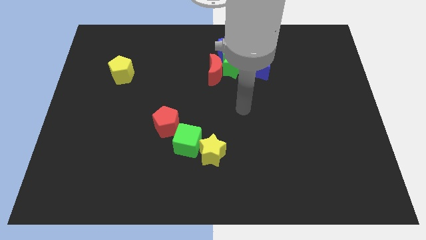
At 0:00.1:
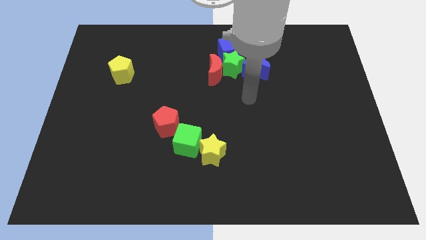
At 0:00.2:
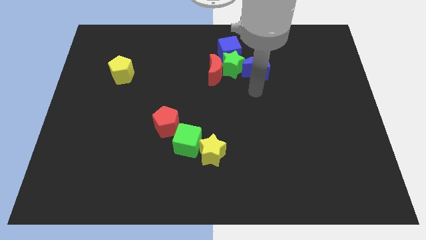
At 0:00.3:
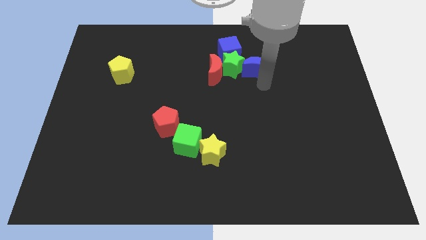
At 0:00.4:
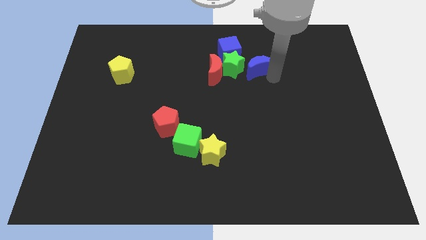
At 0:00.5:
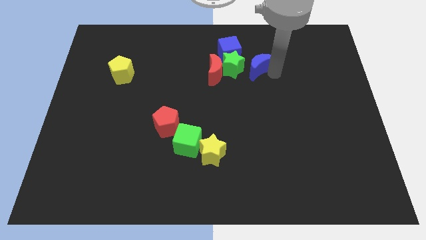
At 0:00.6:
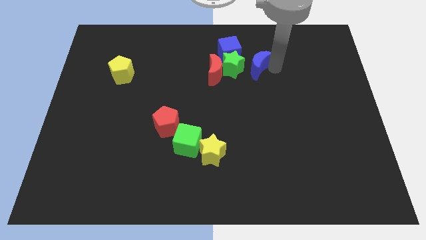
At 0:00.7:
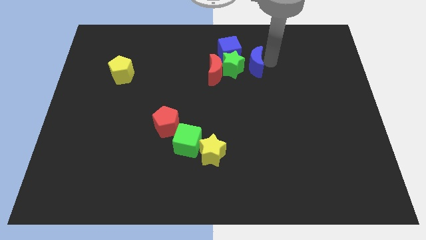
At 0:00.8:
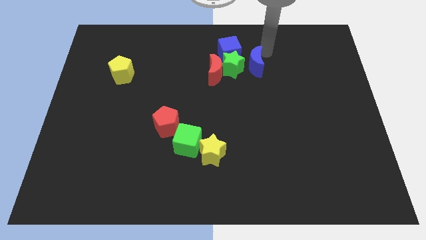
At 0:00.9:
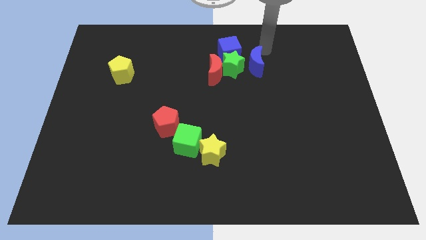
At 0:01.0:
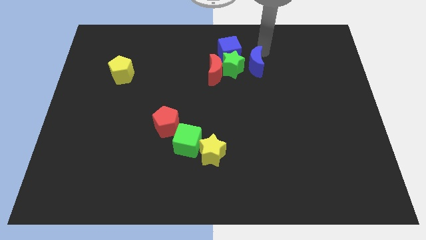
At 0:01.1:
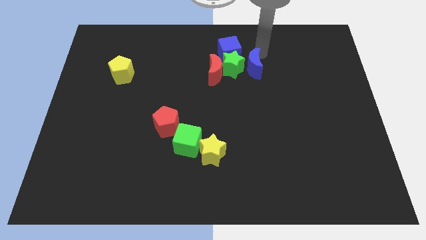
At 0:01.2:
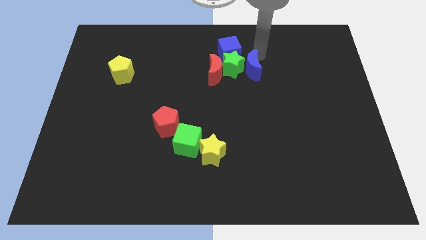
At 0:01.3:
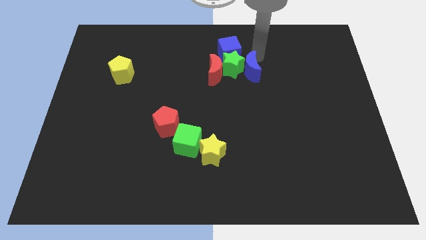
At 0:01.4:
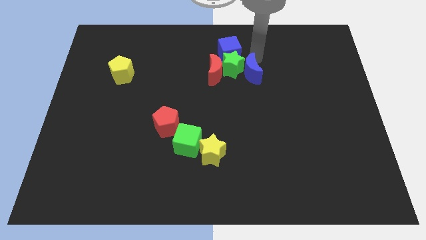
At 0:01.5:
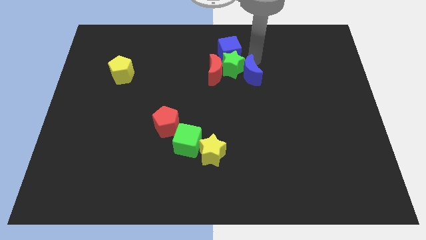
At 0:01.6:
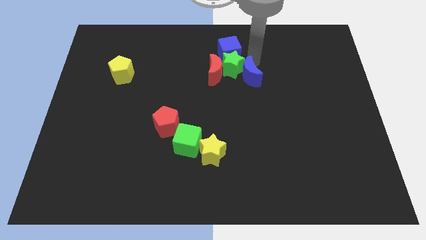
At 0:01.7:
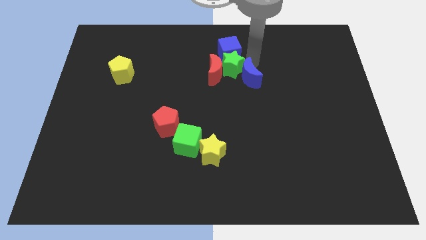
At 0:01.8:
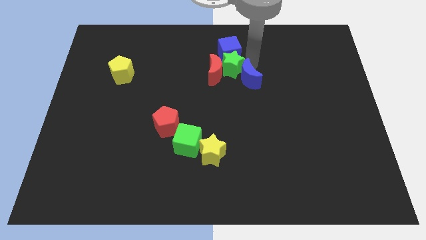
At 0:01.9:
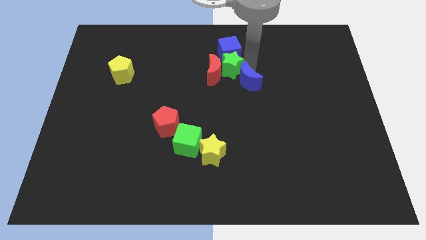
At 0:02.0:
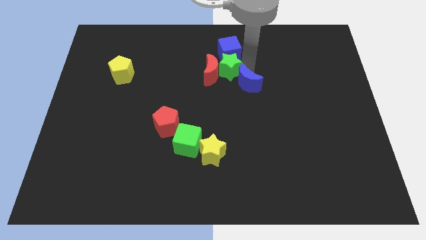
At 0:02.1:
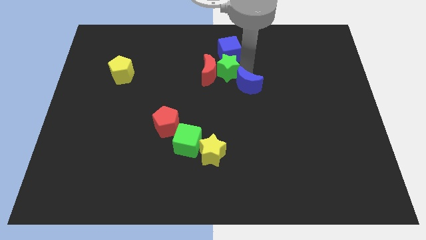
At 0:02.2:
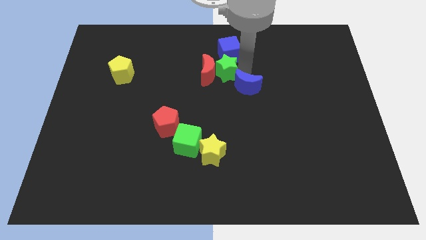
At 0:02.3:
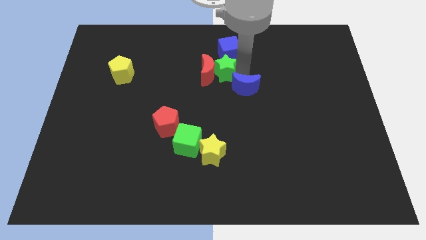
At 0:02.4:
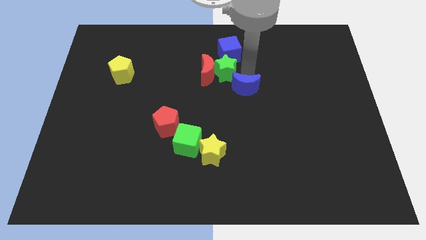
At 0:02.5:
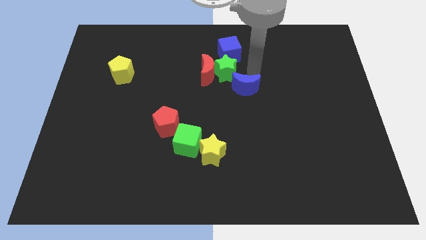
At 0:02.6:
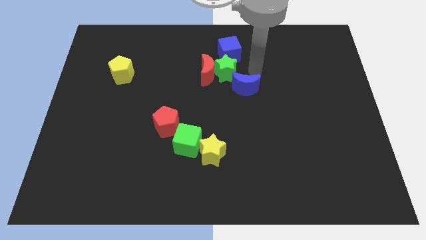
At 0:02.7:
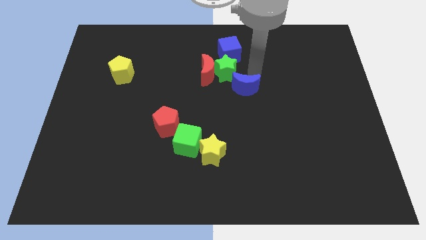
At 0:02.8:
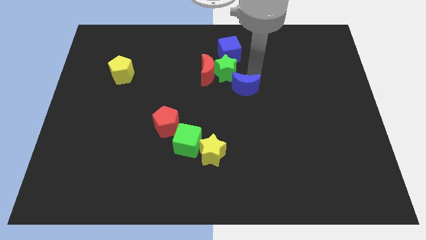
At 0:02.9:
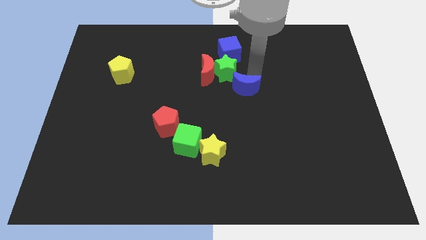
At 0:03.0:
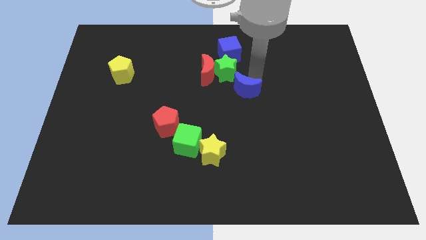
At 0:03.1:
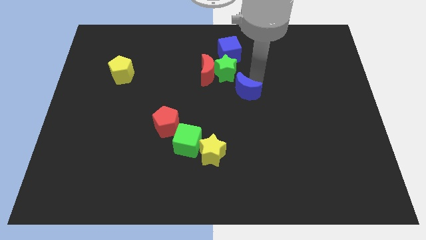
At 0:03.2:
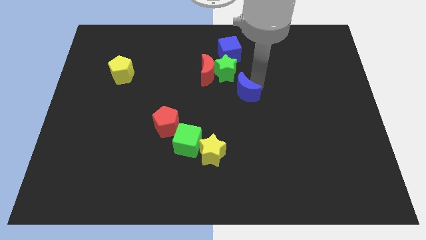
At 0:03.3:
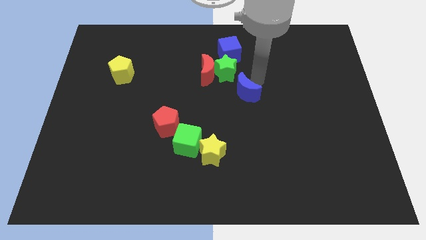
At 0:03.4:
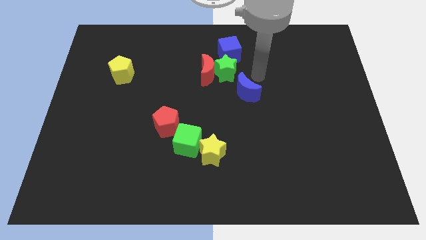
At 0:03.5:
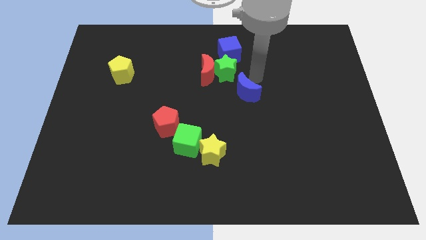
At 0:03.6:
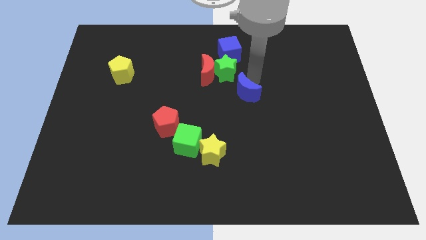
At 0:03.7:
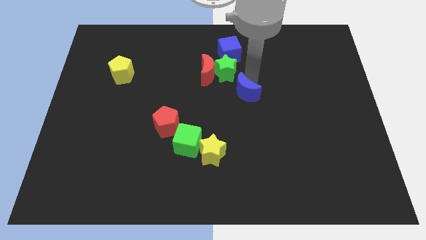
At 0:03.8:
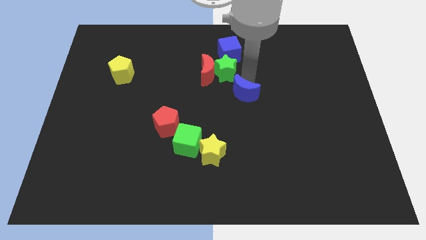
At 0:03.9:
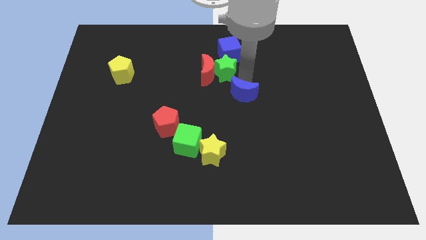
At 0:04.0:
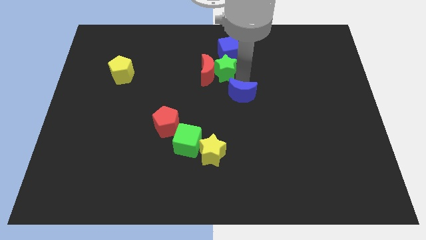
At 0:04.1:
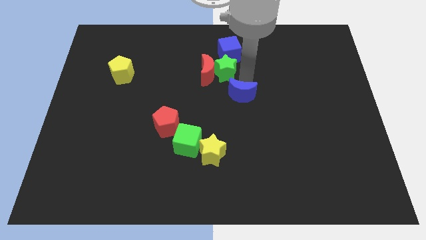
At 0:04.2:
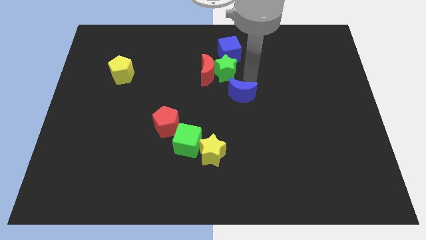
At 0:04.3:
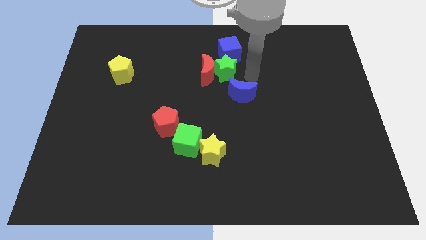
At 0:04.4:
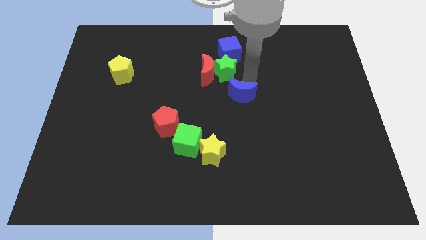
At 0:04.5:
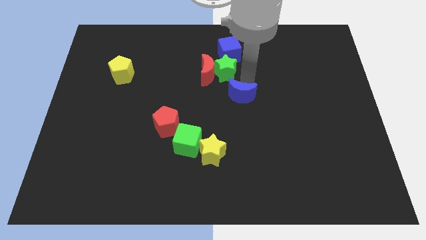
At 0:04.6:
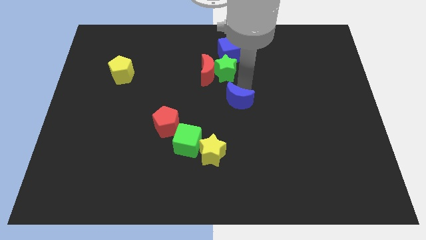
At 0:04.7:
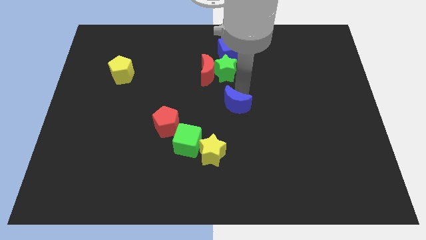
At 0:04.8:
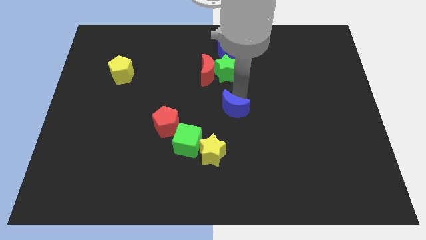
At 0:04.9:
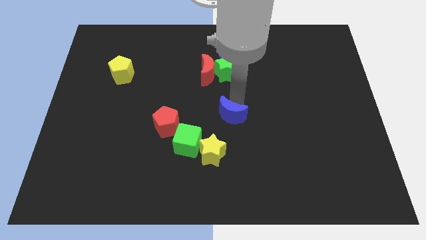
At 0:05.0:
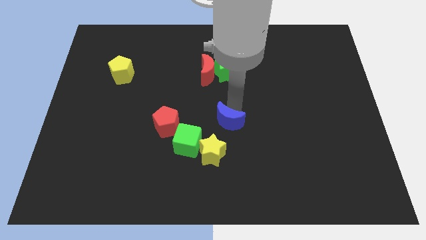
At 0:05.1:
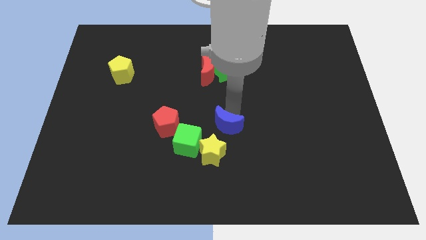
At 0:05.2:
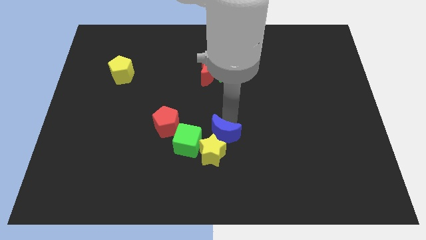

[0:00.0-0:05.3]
push the blue moon close to the yellow star
